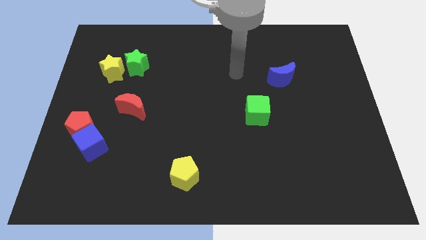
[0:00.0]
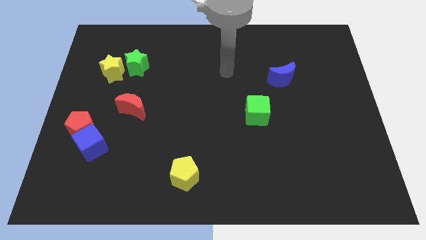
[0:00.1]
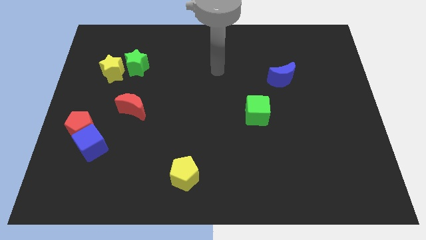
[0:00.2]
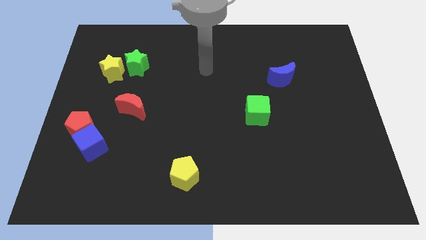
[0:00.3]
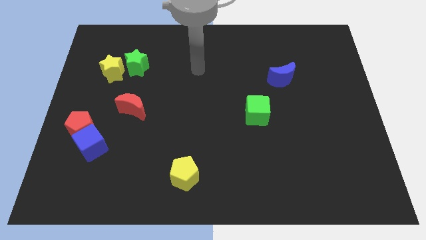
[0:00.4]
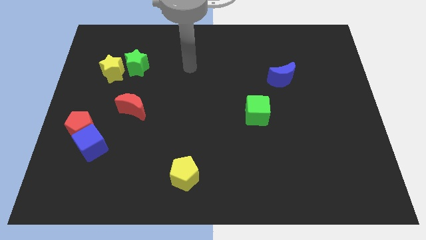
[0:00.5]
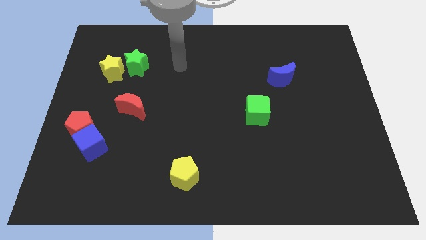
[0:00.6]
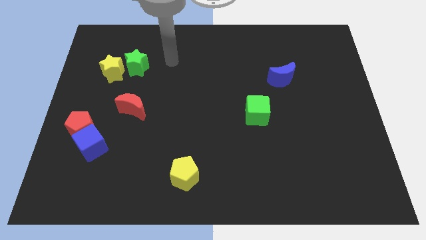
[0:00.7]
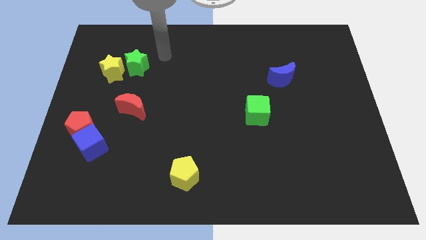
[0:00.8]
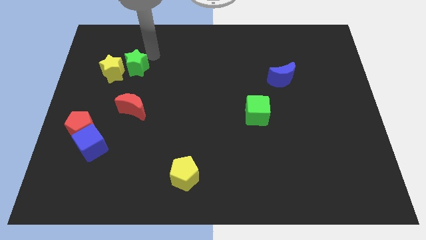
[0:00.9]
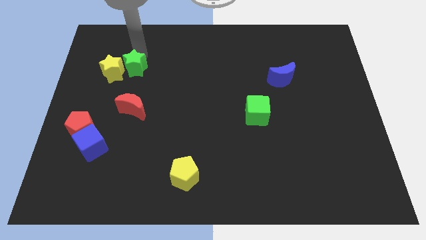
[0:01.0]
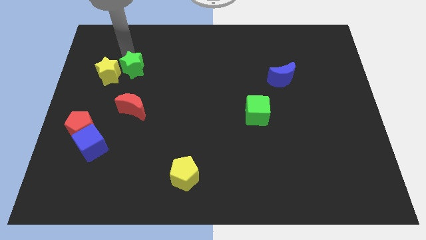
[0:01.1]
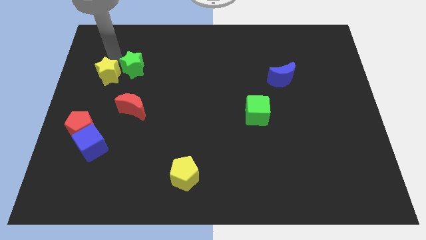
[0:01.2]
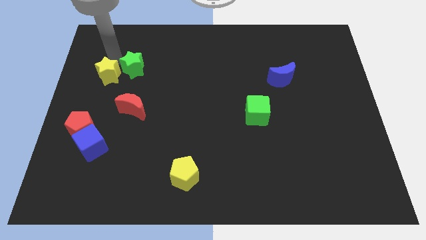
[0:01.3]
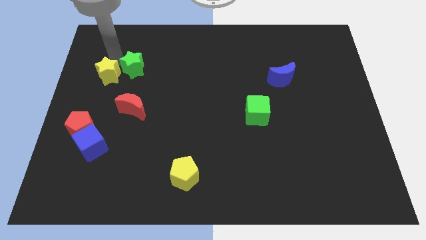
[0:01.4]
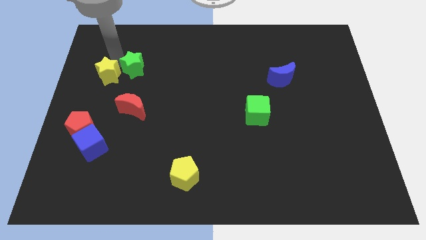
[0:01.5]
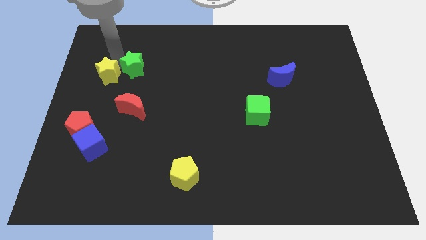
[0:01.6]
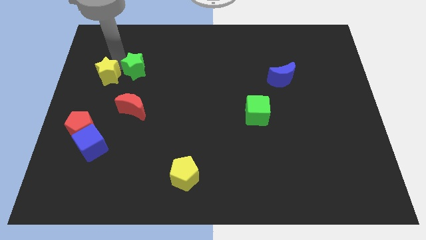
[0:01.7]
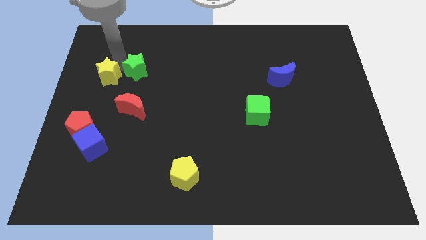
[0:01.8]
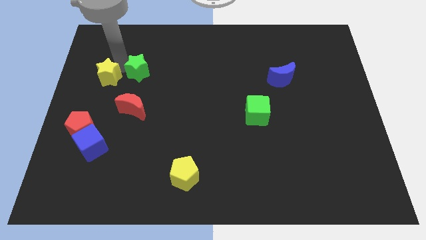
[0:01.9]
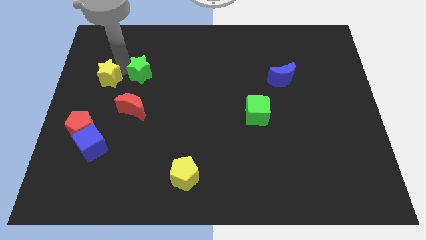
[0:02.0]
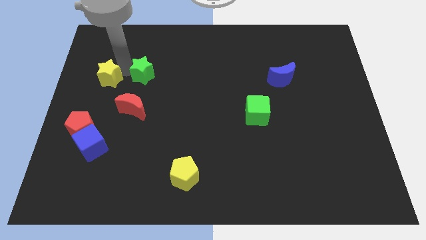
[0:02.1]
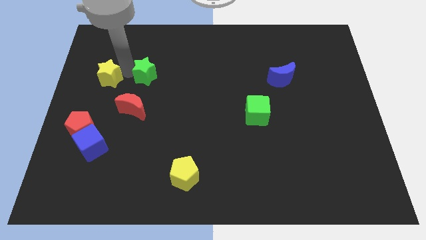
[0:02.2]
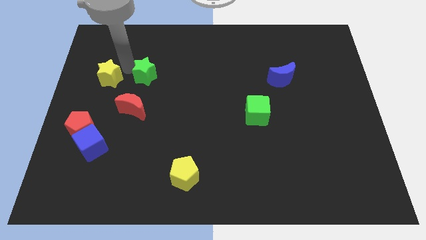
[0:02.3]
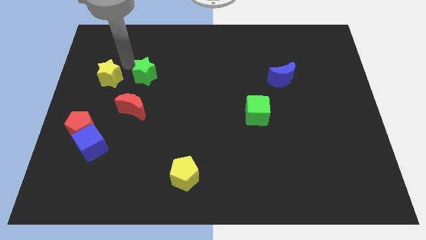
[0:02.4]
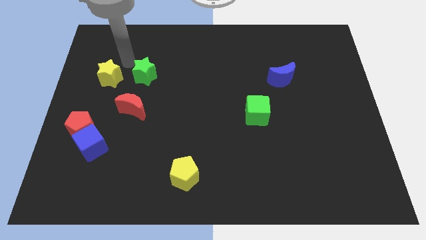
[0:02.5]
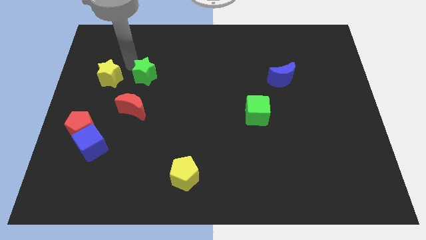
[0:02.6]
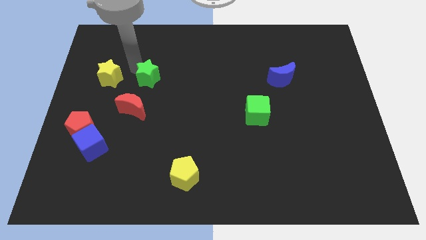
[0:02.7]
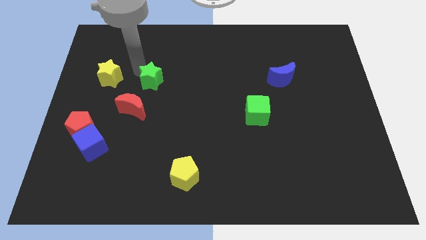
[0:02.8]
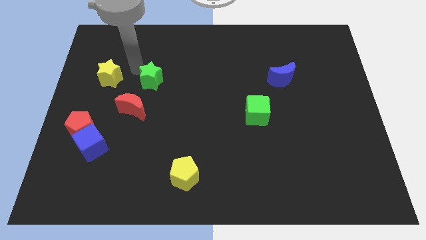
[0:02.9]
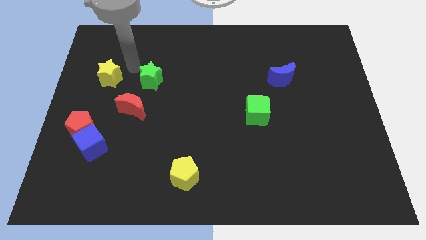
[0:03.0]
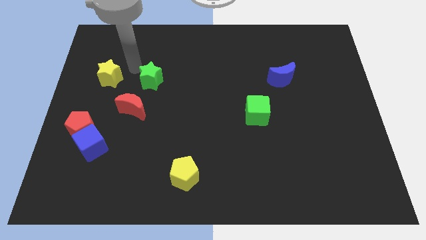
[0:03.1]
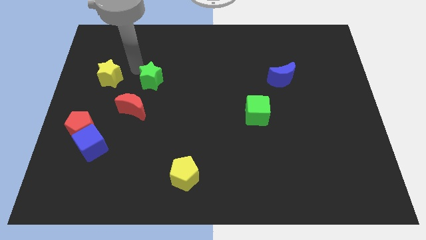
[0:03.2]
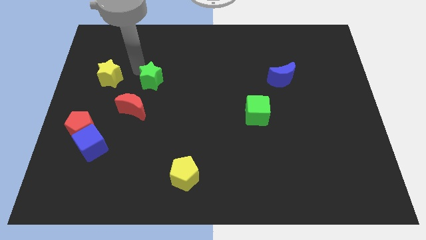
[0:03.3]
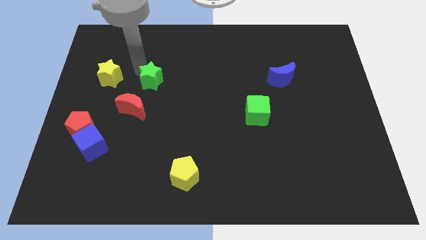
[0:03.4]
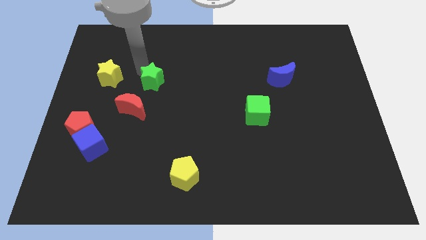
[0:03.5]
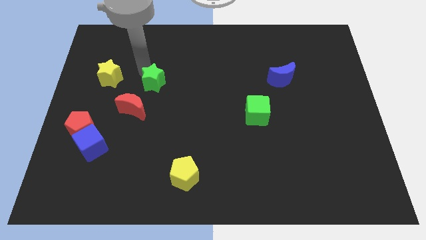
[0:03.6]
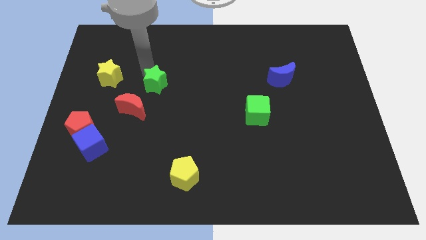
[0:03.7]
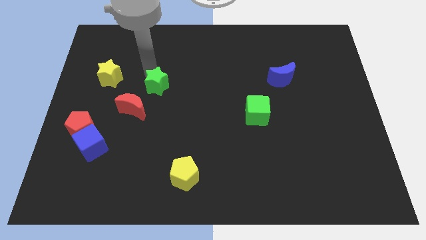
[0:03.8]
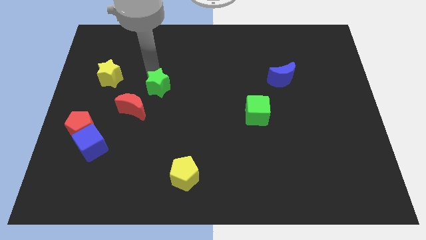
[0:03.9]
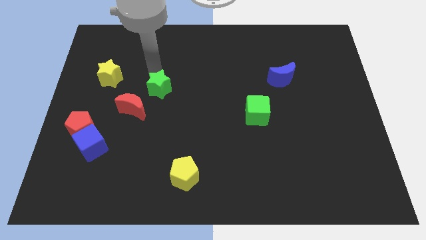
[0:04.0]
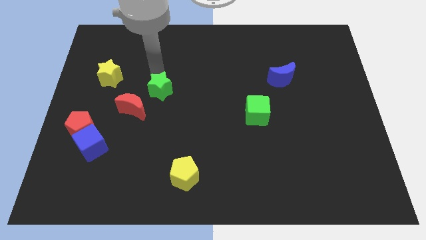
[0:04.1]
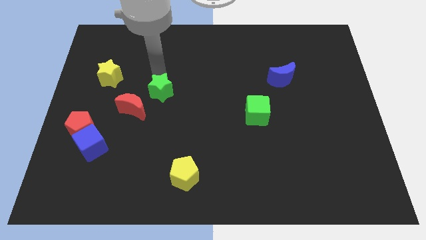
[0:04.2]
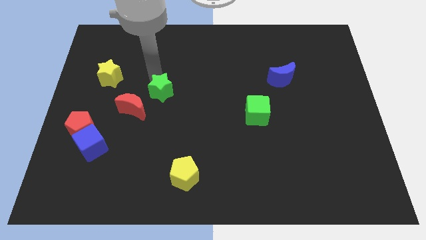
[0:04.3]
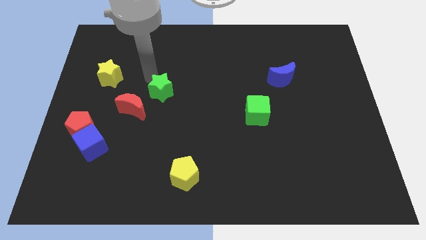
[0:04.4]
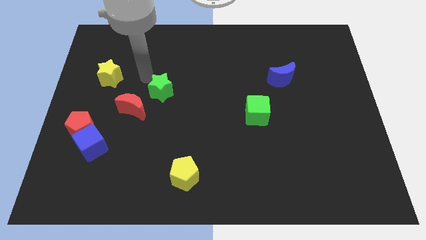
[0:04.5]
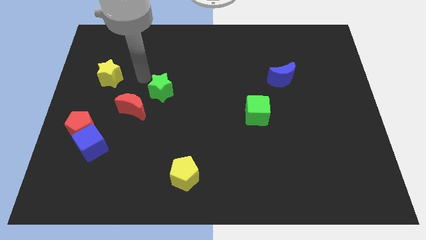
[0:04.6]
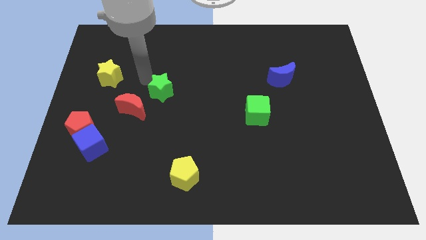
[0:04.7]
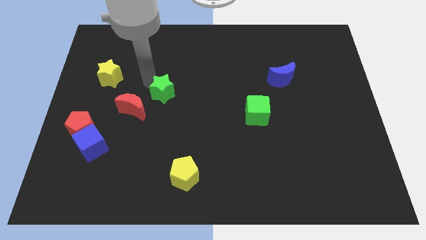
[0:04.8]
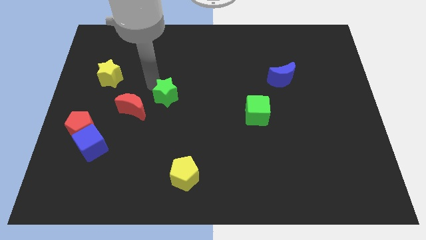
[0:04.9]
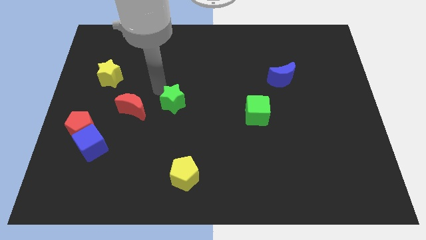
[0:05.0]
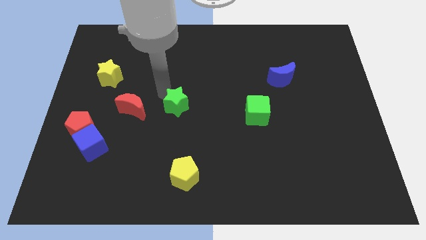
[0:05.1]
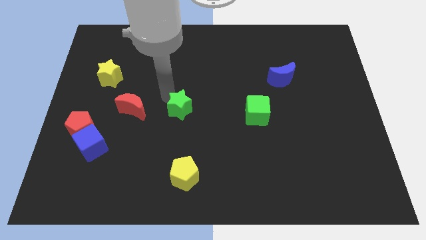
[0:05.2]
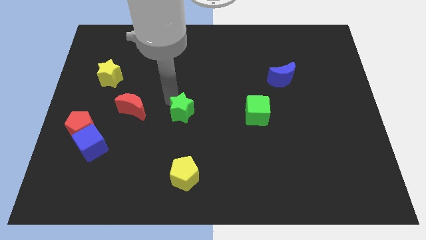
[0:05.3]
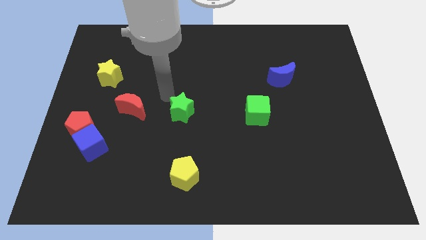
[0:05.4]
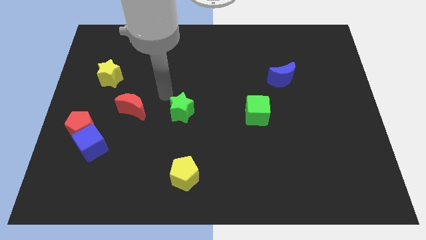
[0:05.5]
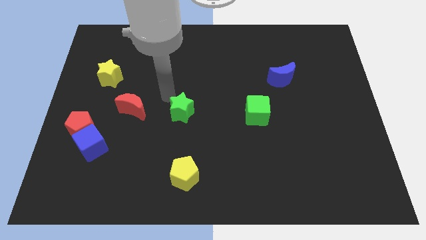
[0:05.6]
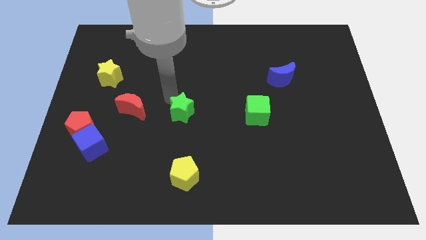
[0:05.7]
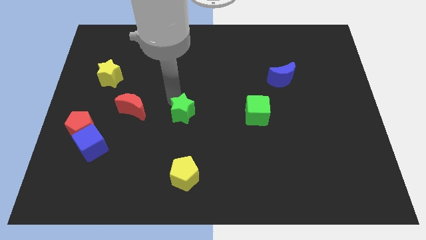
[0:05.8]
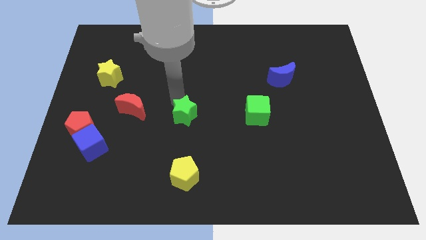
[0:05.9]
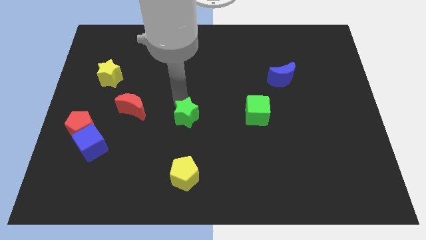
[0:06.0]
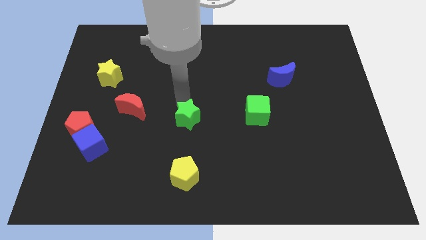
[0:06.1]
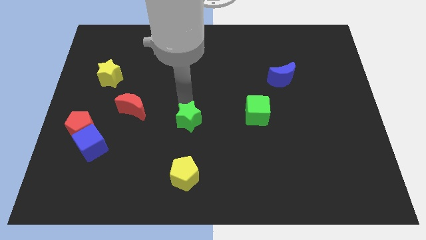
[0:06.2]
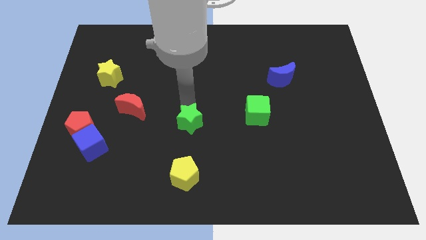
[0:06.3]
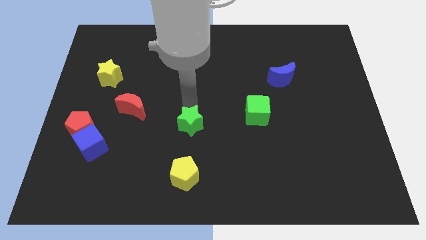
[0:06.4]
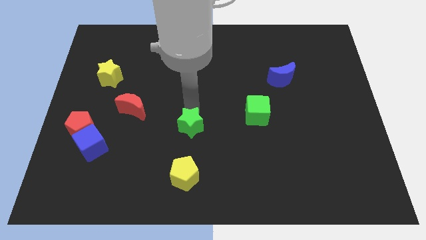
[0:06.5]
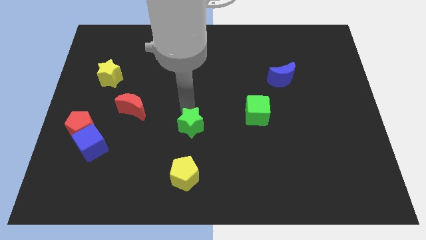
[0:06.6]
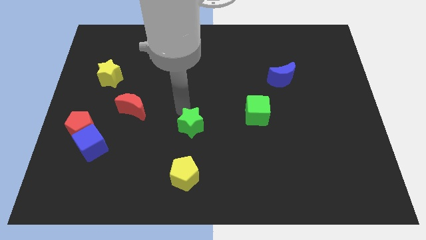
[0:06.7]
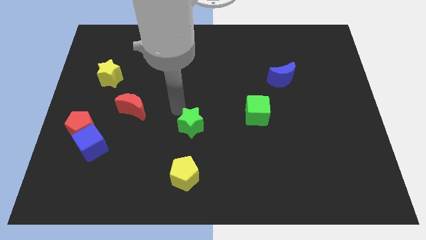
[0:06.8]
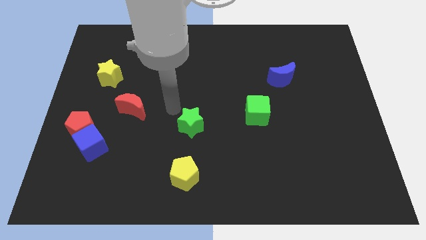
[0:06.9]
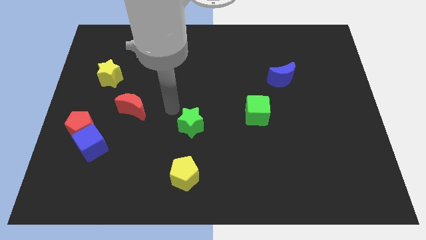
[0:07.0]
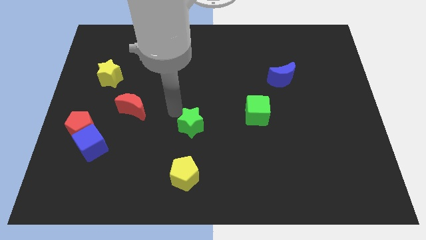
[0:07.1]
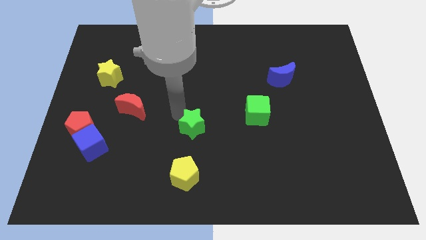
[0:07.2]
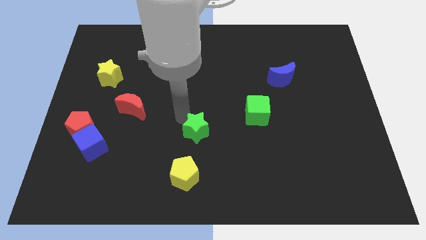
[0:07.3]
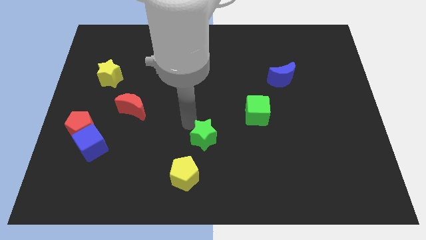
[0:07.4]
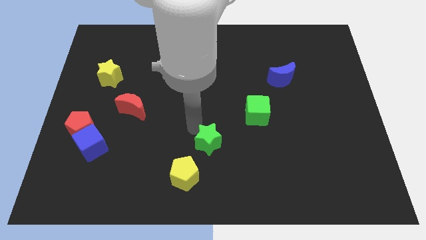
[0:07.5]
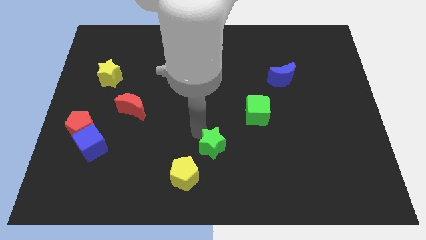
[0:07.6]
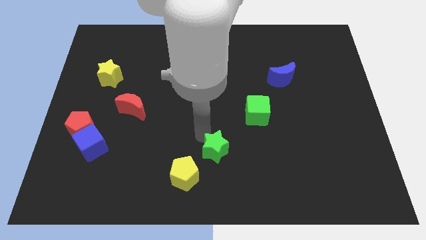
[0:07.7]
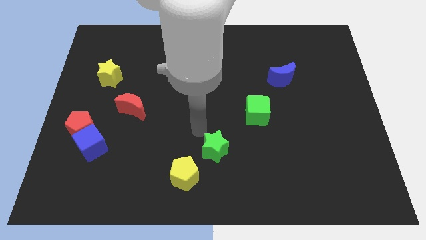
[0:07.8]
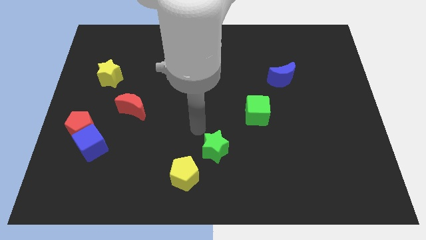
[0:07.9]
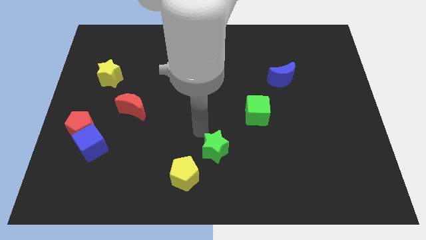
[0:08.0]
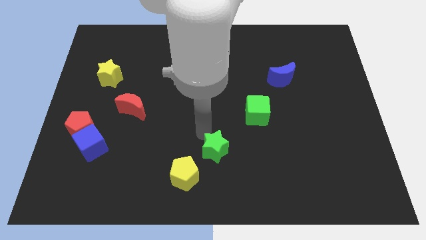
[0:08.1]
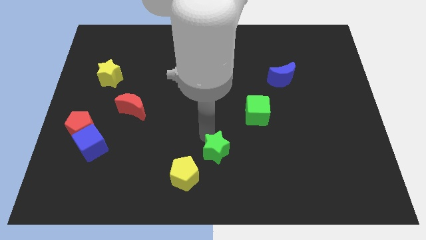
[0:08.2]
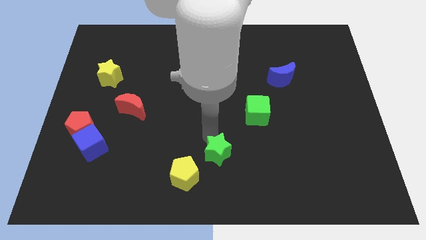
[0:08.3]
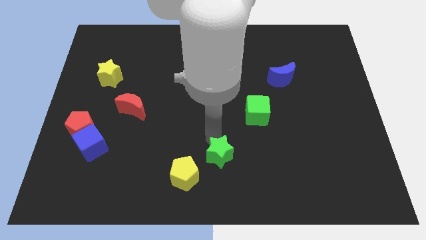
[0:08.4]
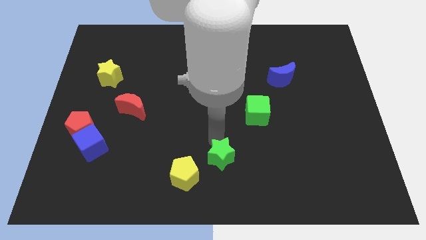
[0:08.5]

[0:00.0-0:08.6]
slide the green star just right of the yellow pentagon
